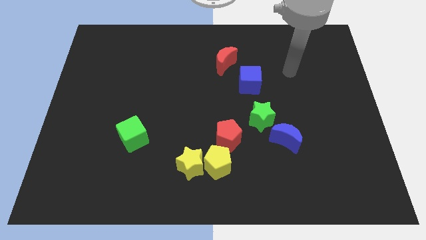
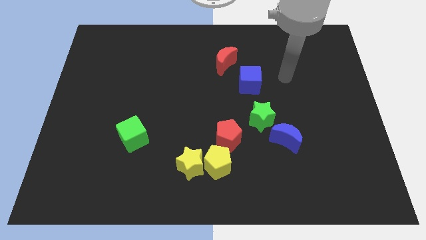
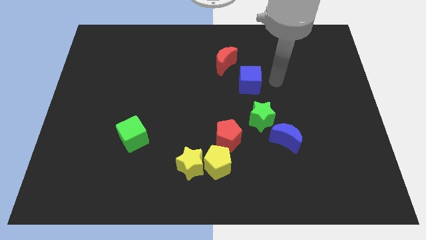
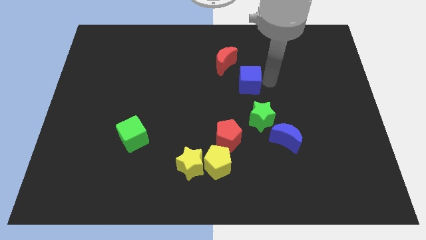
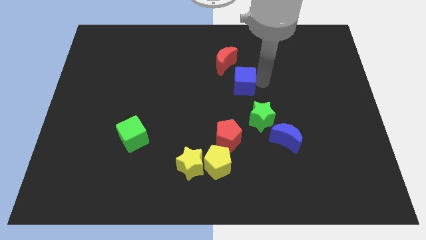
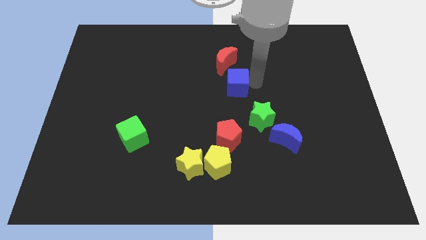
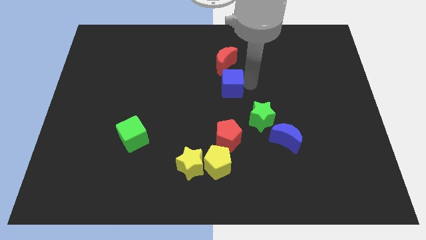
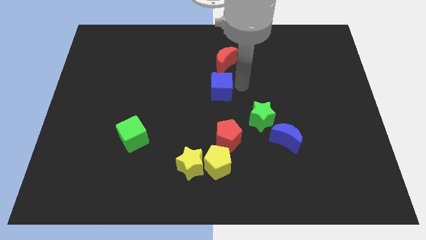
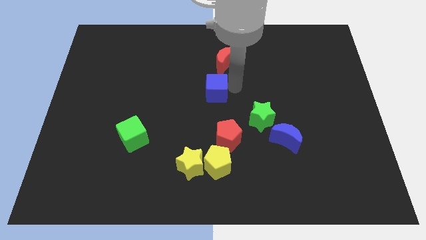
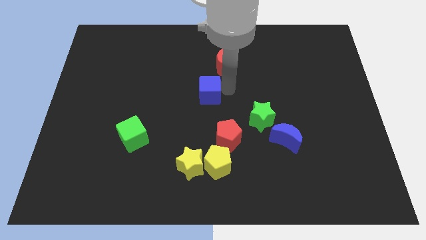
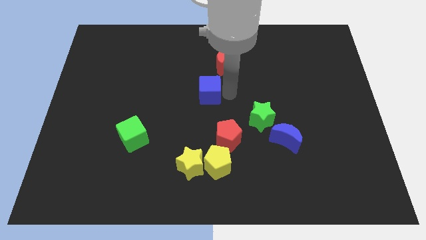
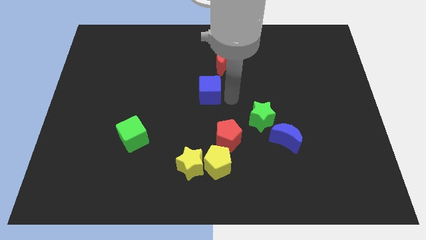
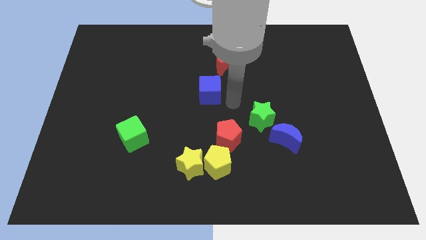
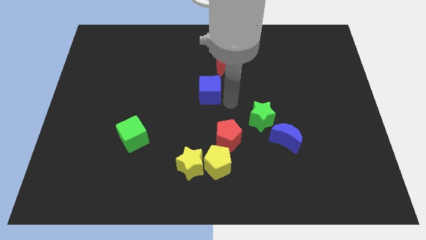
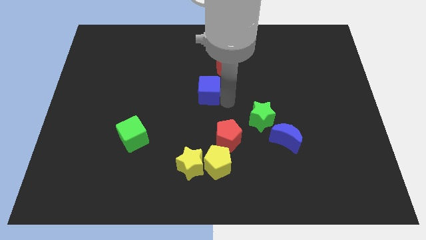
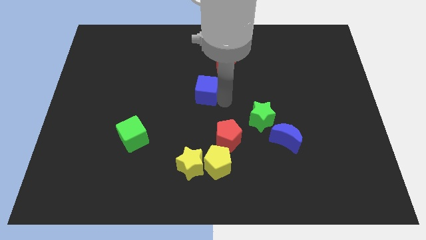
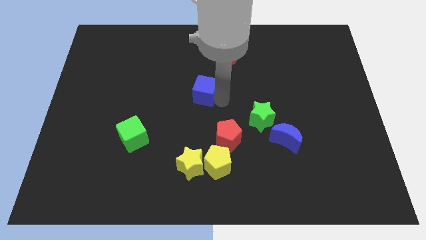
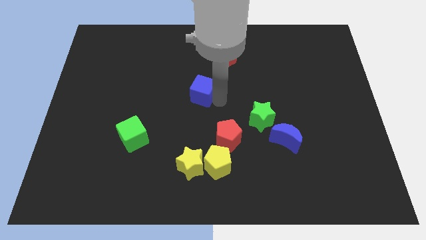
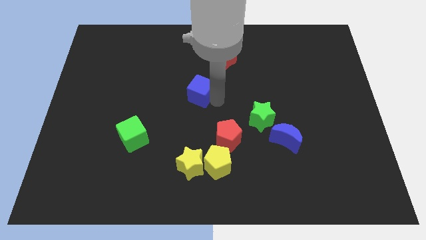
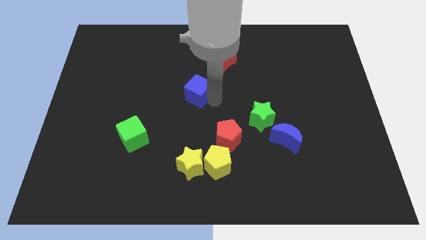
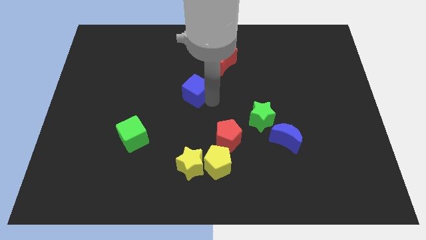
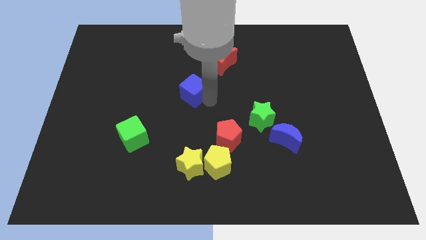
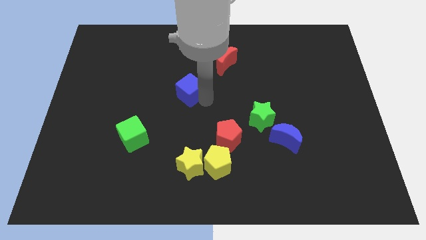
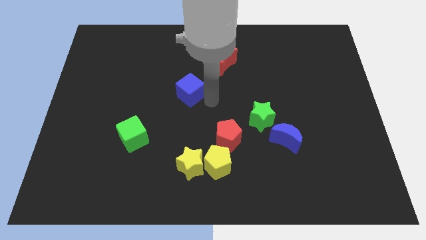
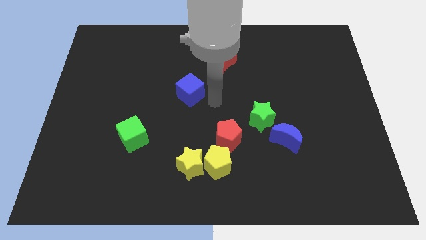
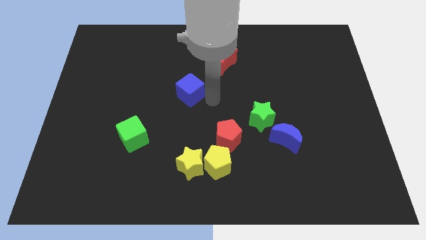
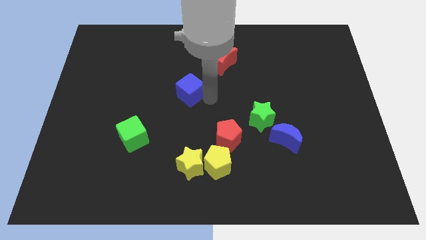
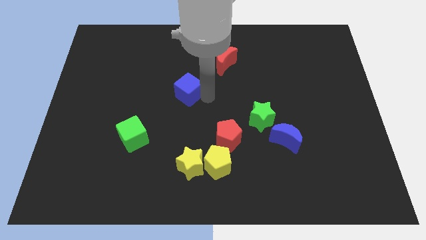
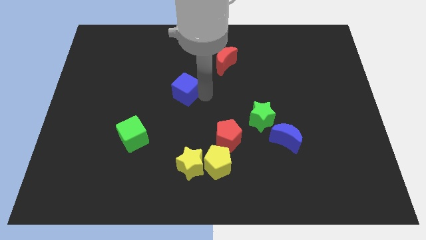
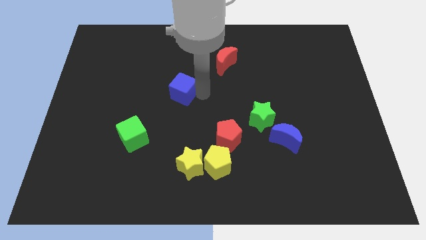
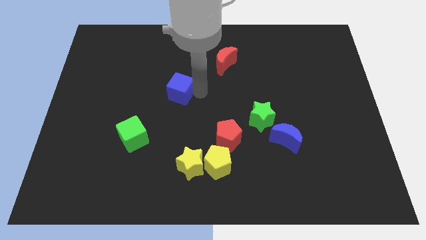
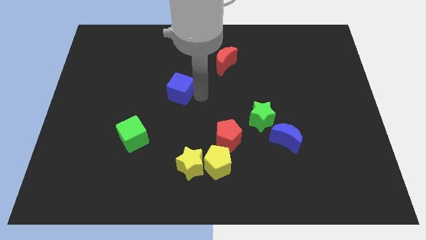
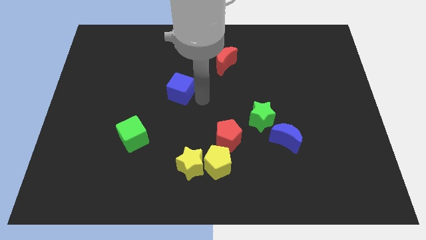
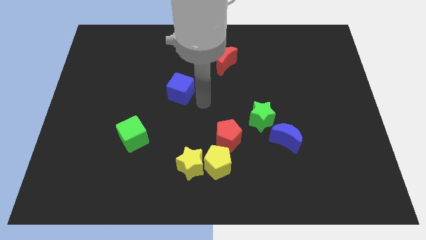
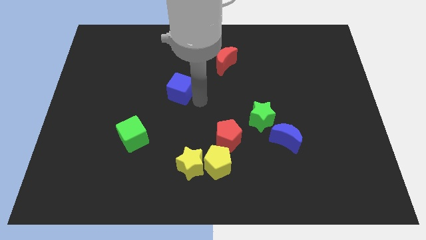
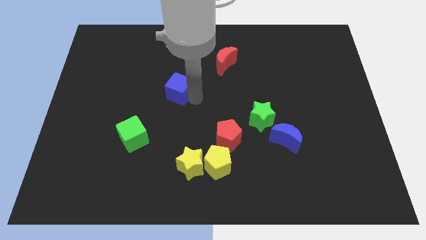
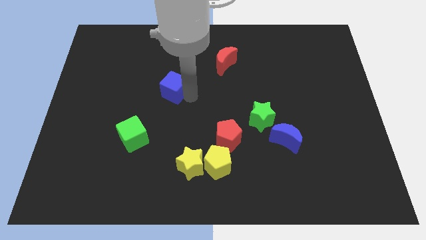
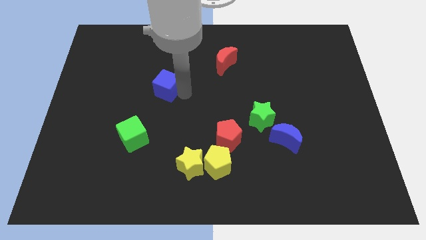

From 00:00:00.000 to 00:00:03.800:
move the blue cube to the left

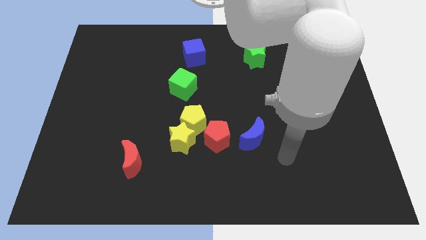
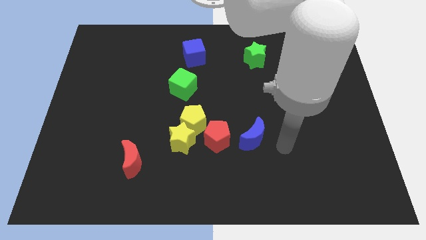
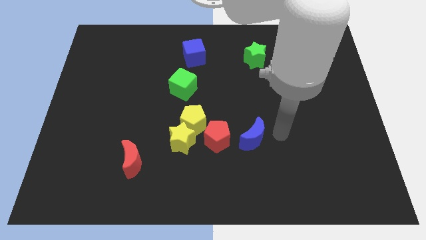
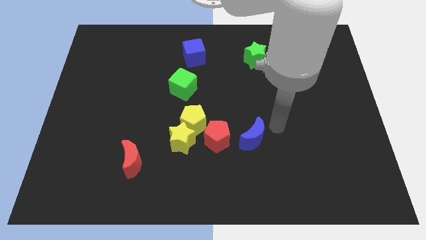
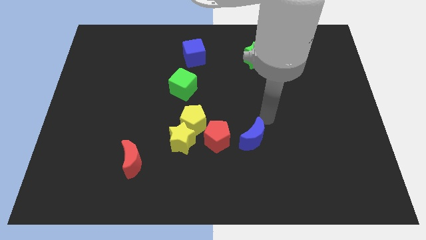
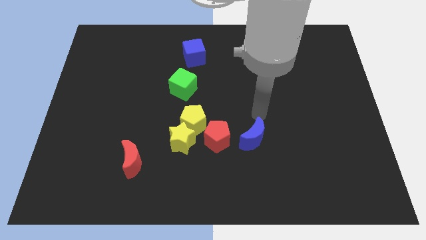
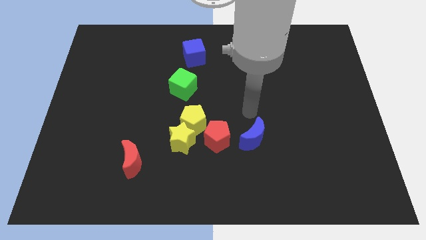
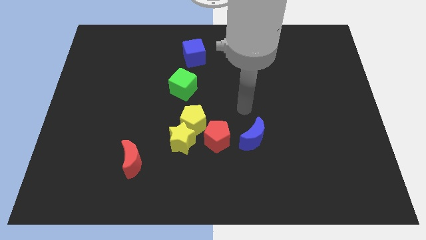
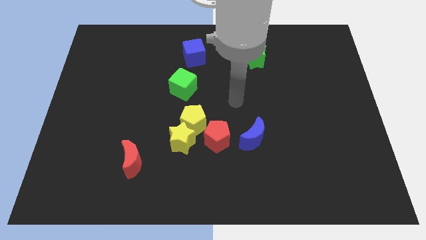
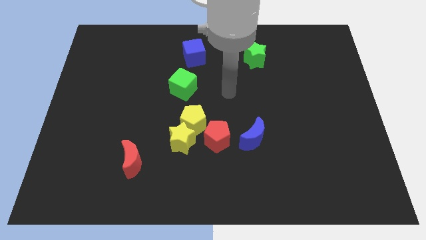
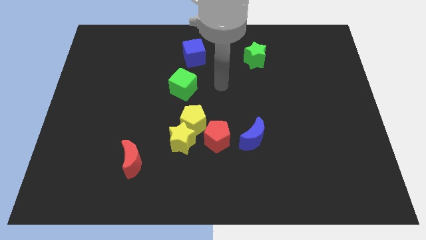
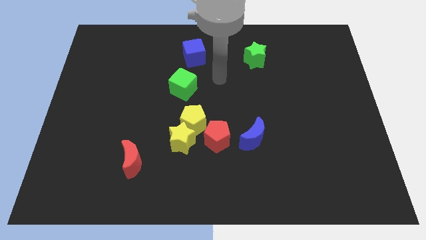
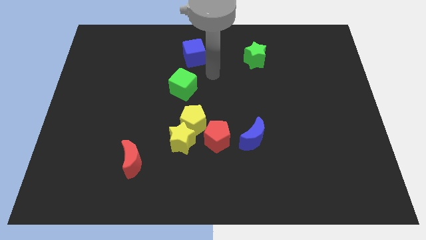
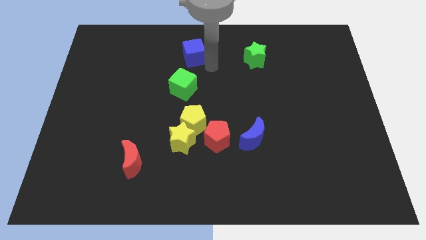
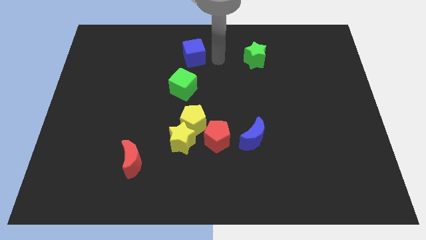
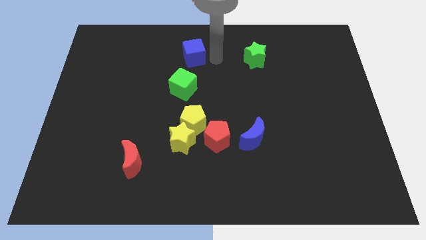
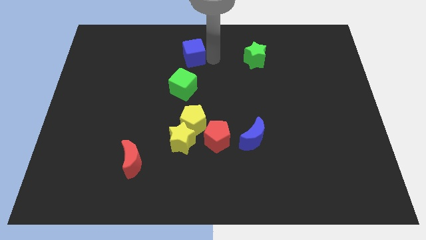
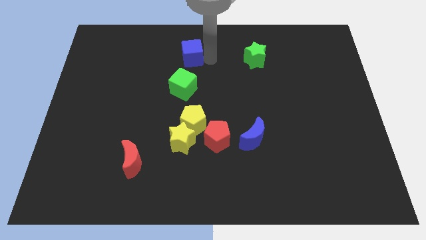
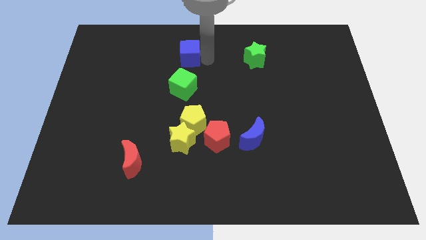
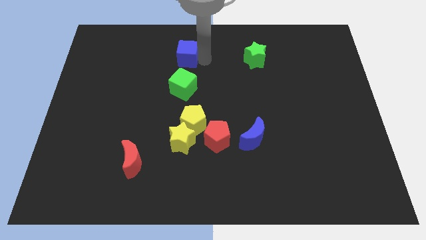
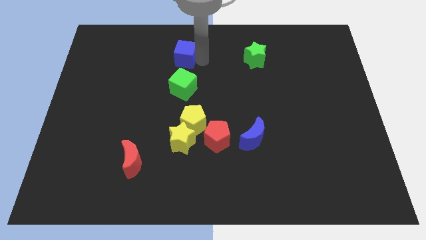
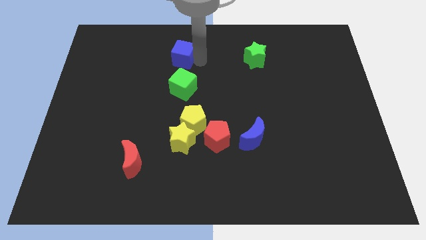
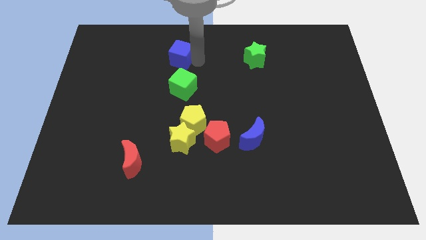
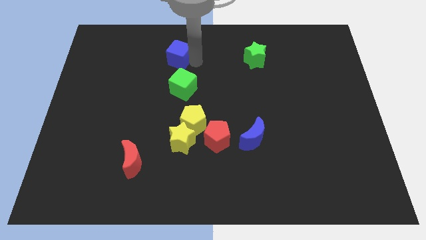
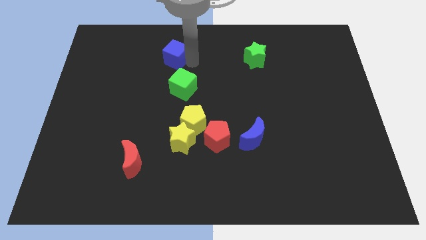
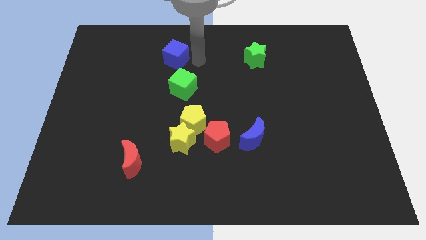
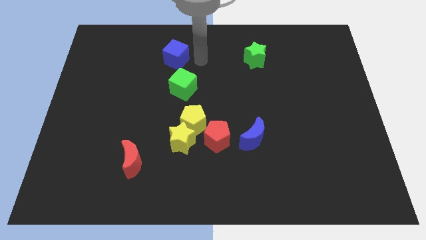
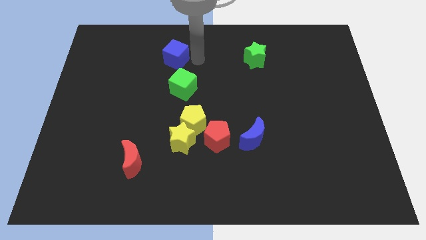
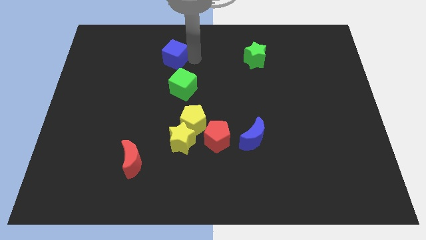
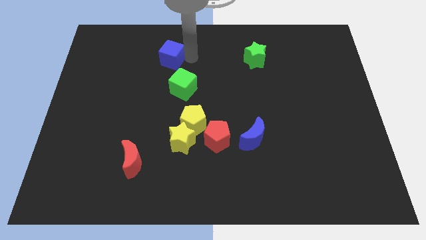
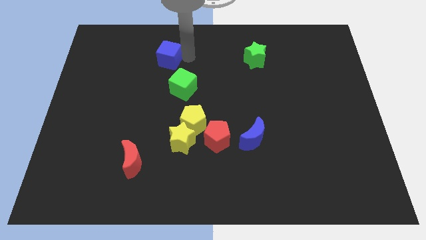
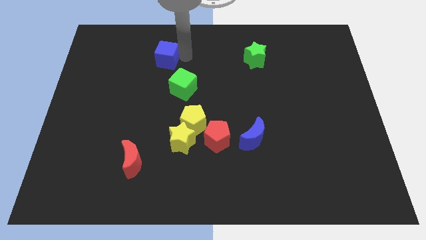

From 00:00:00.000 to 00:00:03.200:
slide the blue cube left a little

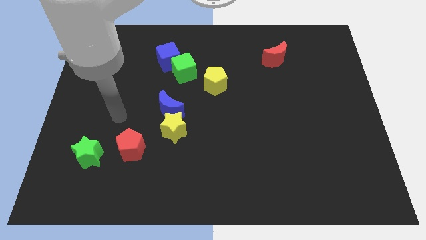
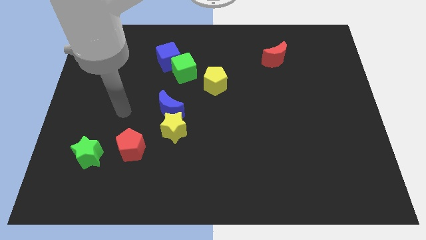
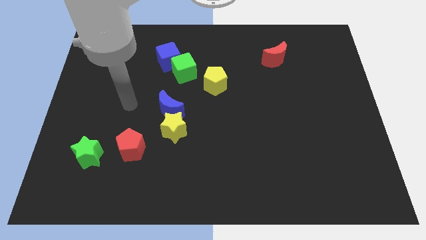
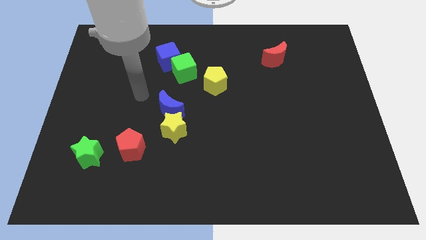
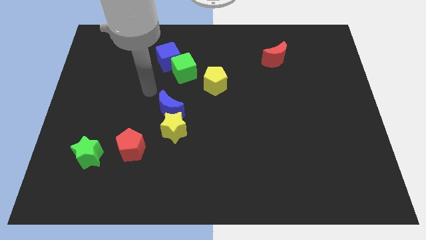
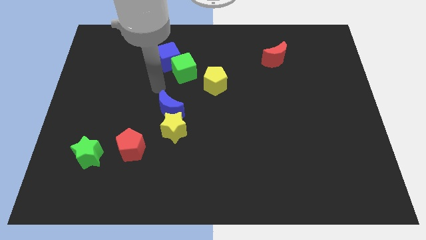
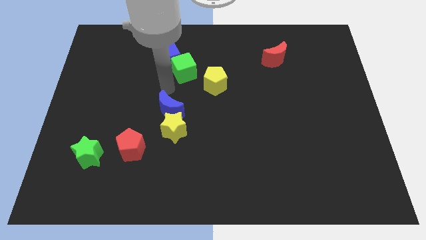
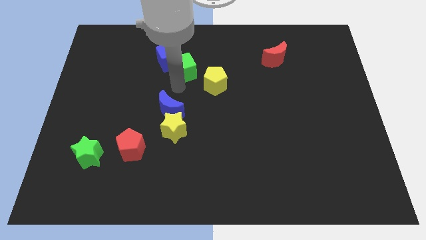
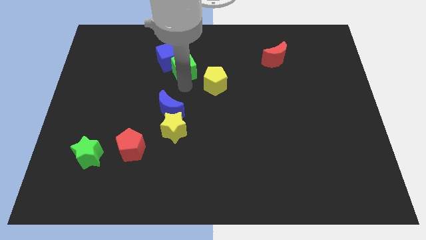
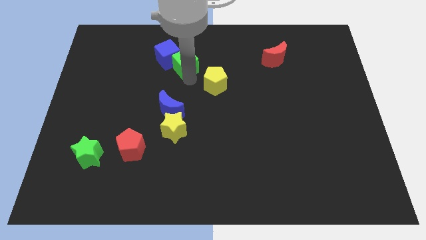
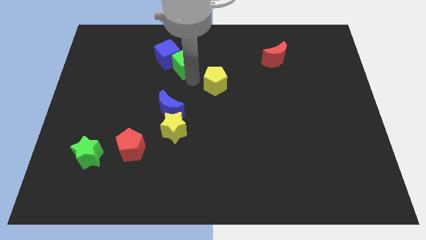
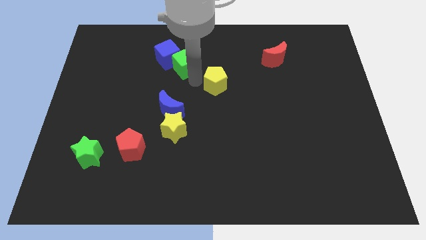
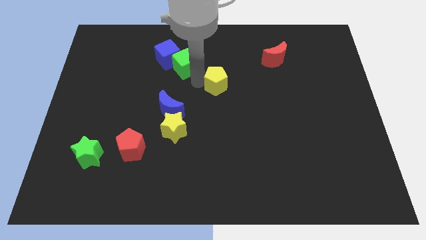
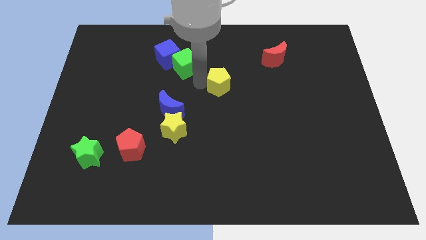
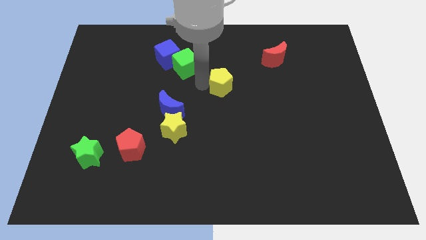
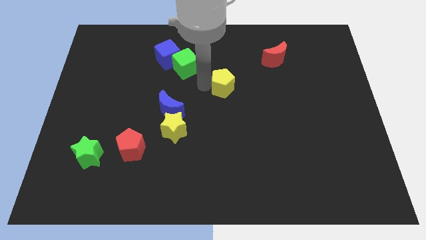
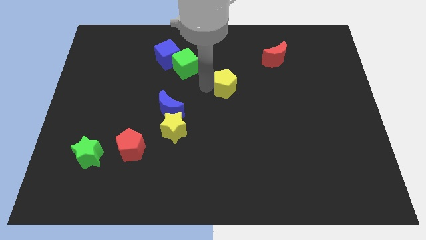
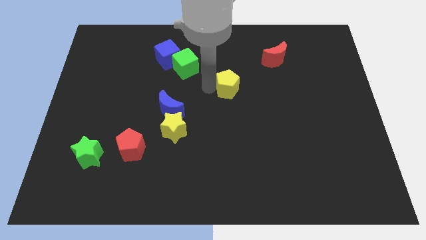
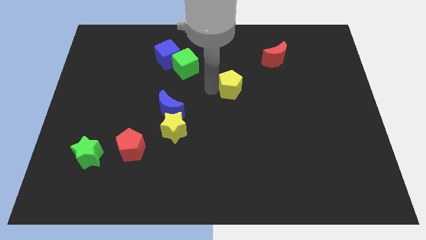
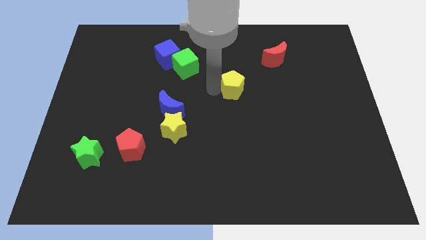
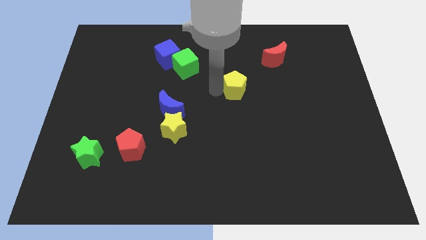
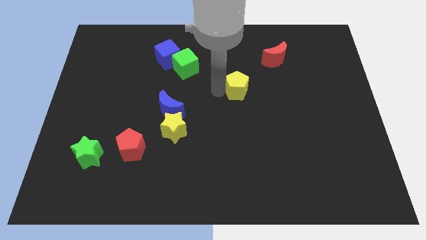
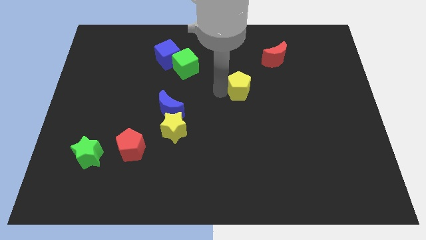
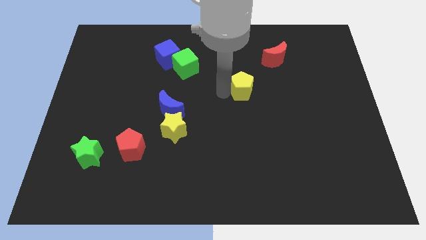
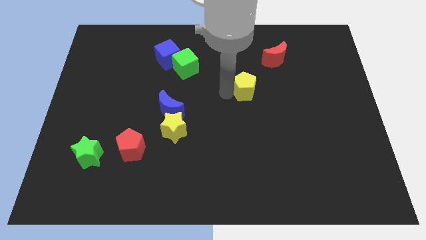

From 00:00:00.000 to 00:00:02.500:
slide the yellow pentagon to the right somewhat
